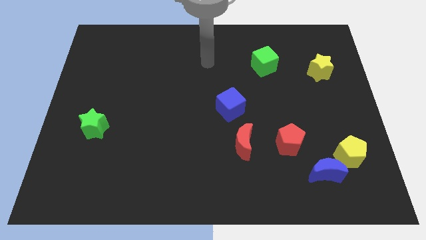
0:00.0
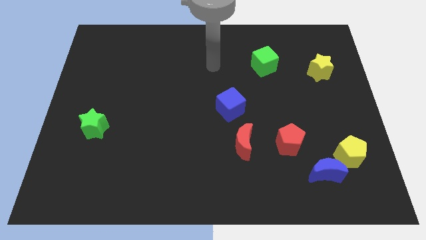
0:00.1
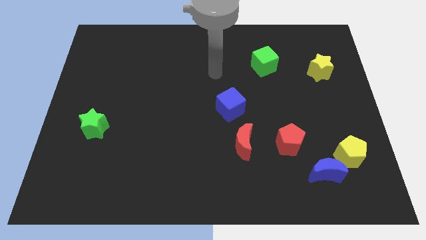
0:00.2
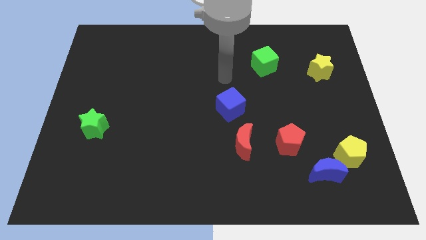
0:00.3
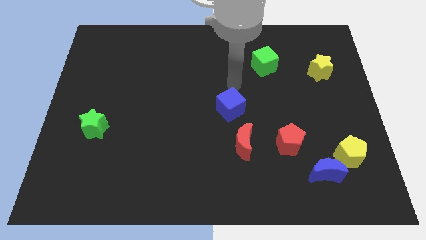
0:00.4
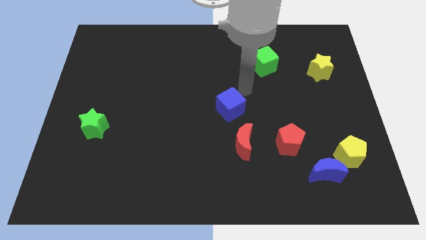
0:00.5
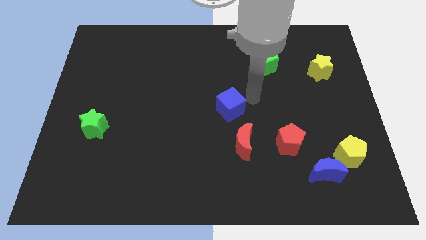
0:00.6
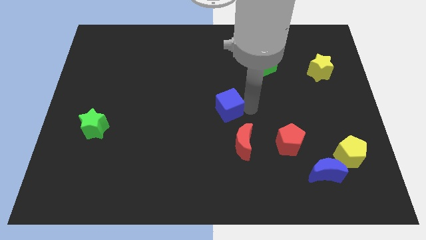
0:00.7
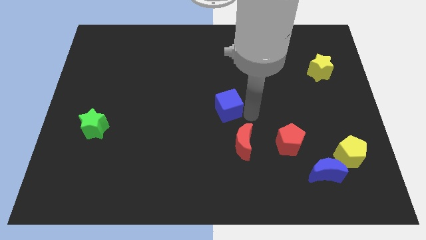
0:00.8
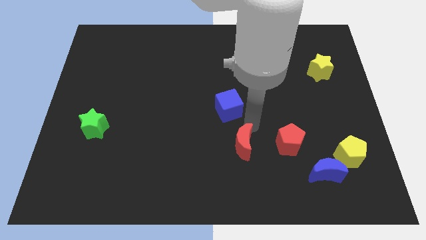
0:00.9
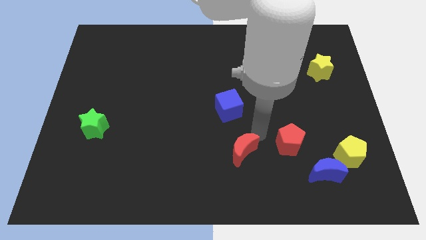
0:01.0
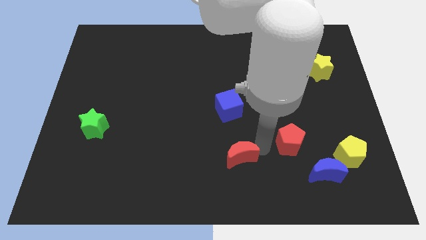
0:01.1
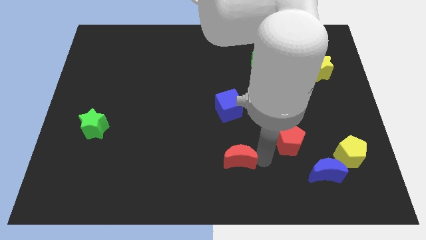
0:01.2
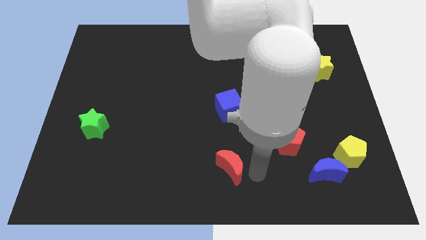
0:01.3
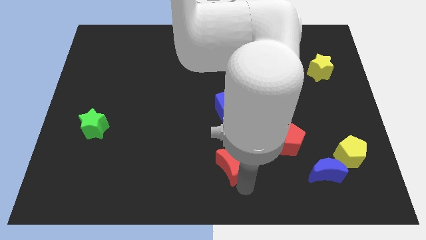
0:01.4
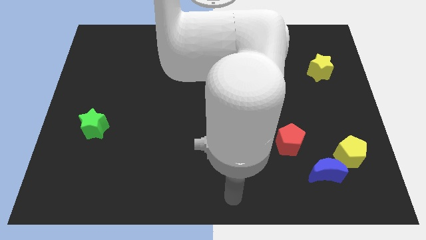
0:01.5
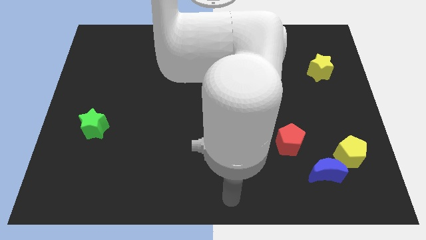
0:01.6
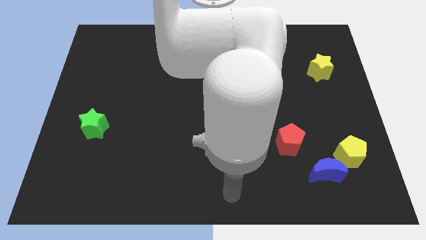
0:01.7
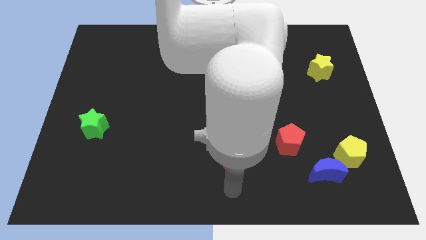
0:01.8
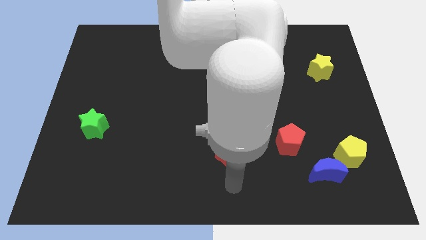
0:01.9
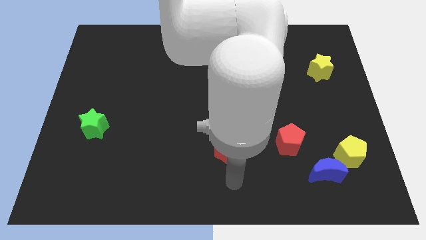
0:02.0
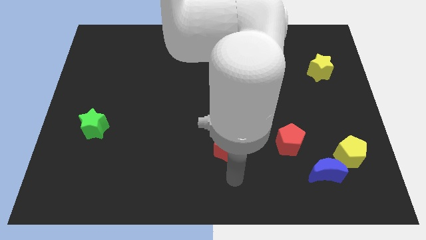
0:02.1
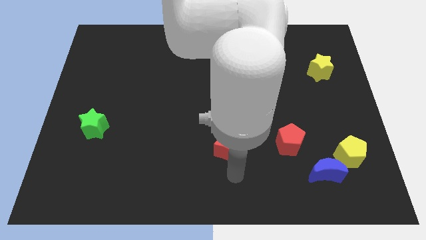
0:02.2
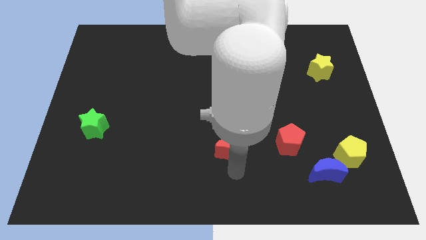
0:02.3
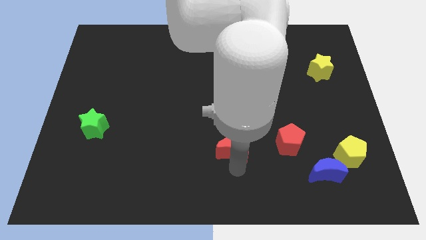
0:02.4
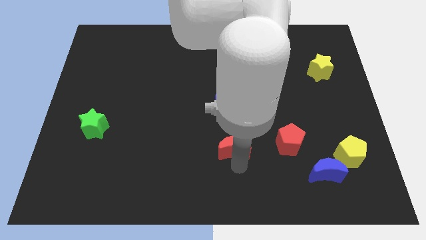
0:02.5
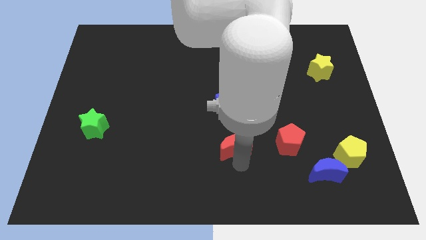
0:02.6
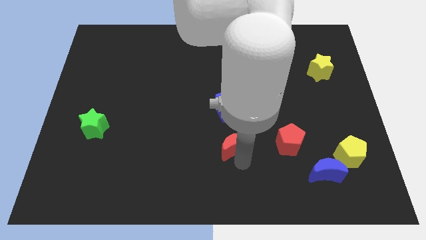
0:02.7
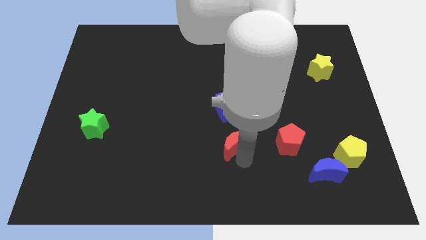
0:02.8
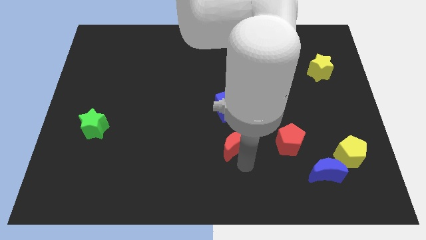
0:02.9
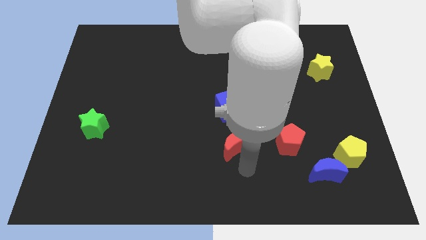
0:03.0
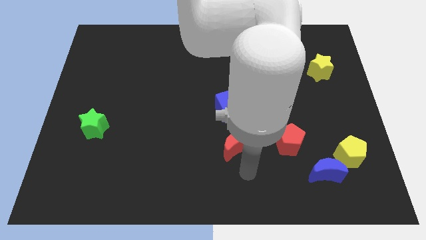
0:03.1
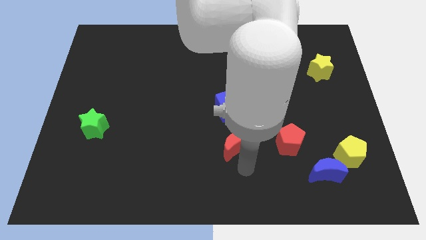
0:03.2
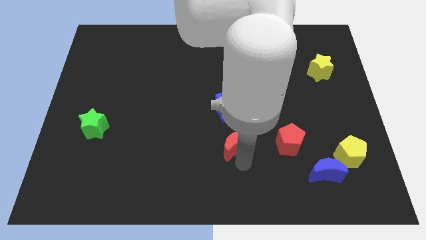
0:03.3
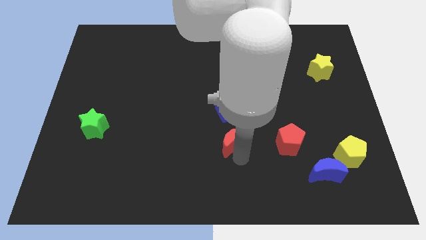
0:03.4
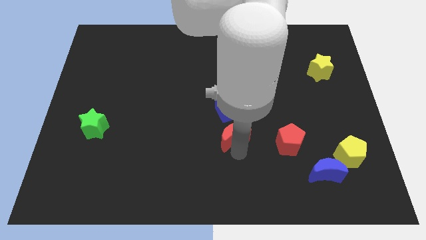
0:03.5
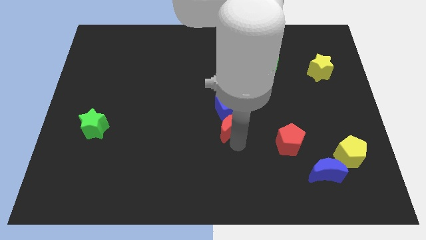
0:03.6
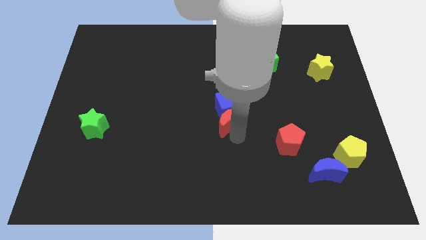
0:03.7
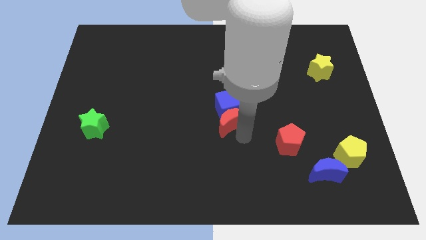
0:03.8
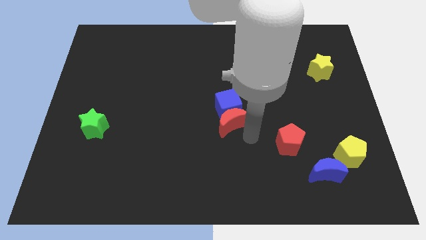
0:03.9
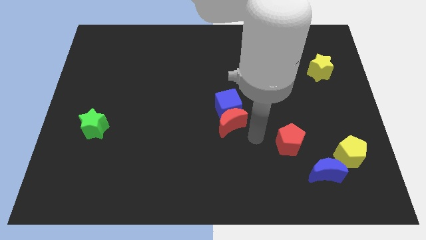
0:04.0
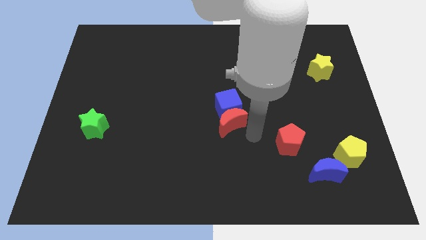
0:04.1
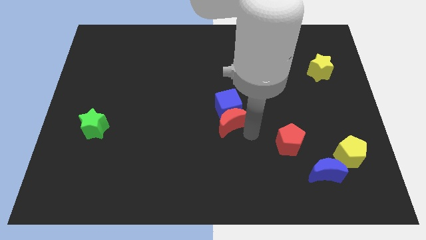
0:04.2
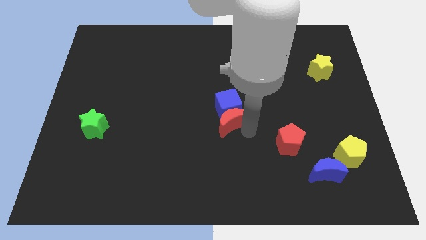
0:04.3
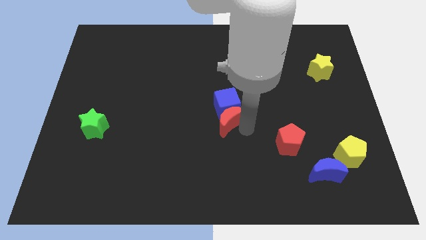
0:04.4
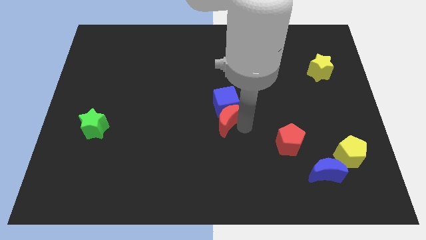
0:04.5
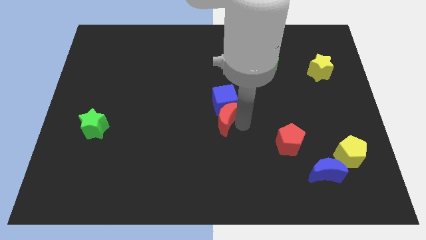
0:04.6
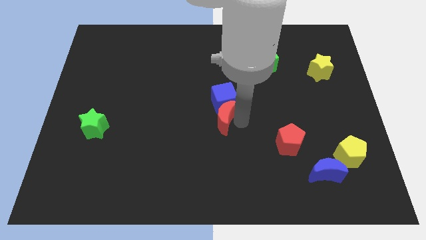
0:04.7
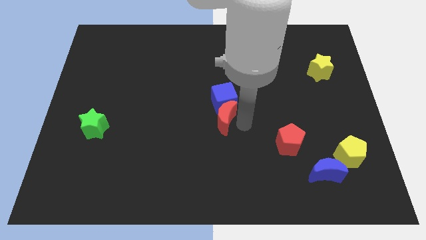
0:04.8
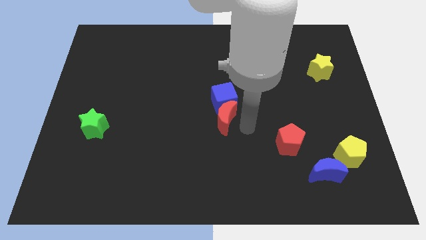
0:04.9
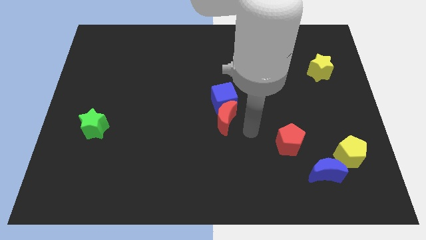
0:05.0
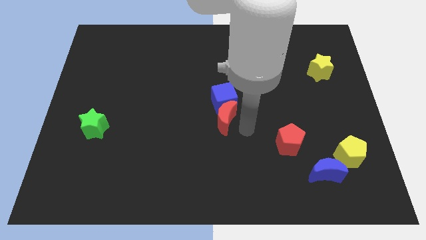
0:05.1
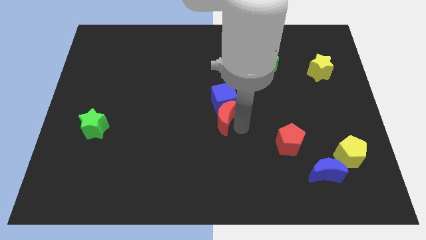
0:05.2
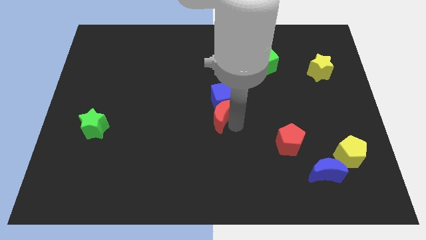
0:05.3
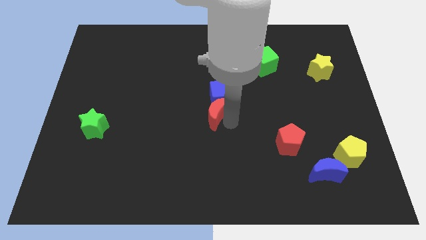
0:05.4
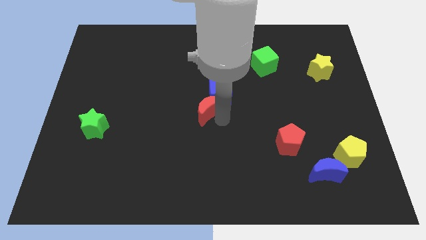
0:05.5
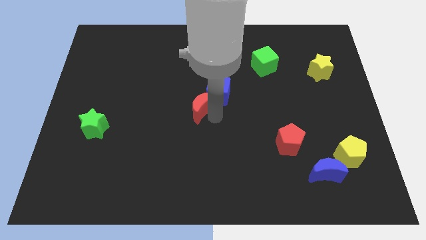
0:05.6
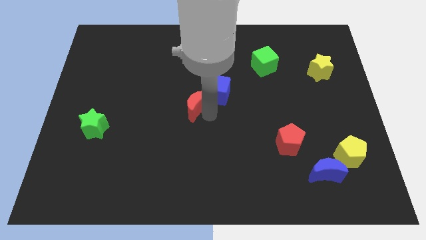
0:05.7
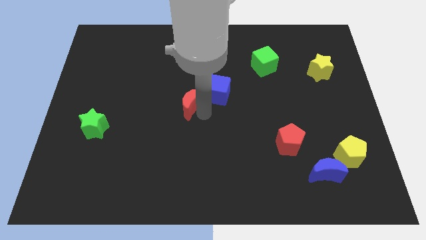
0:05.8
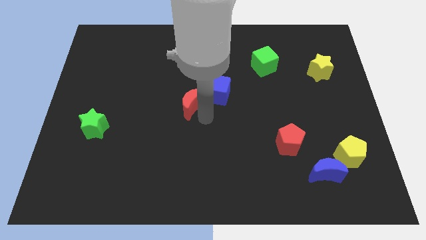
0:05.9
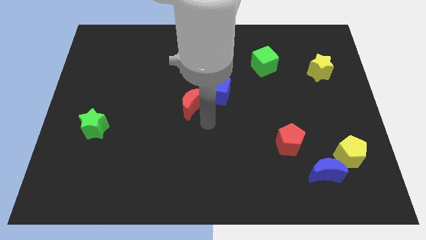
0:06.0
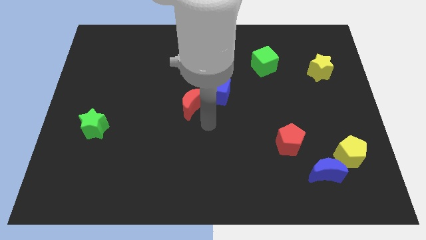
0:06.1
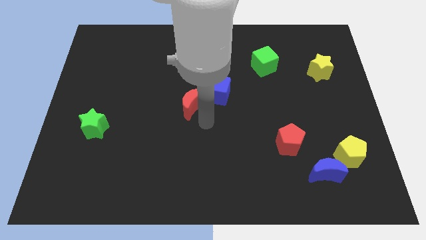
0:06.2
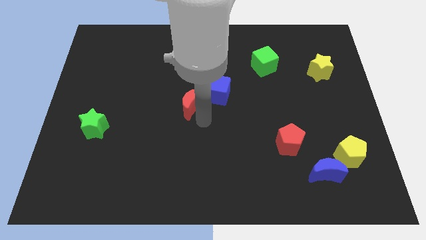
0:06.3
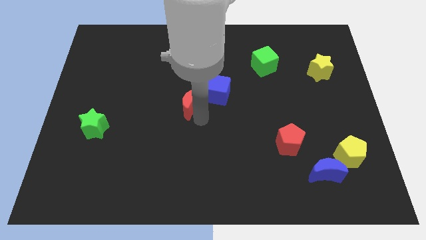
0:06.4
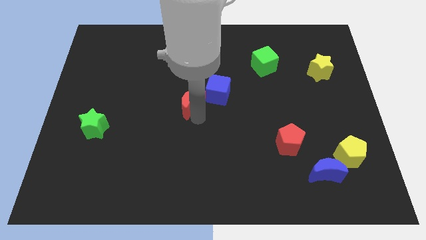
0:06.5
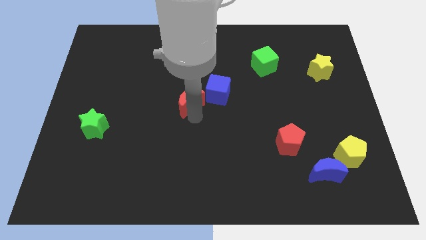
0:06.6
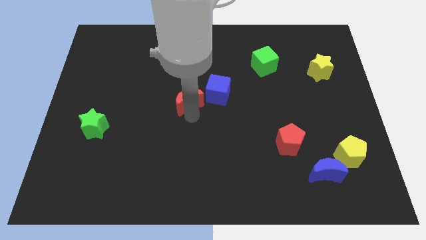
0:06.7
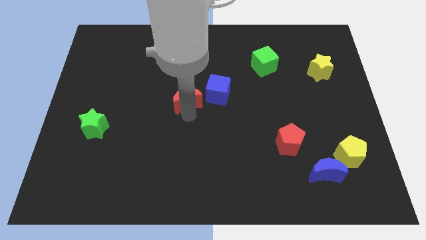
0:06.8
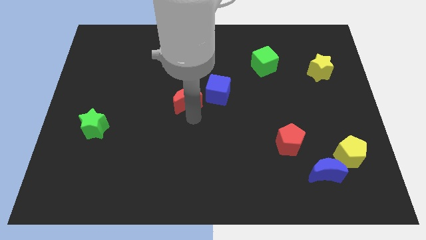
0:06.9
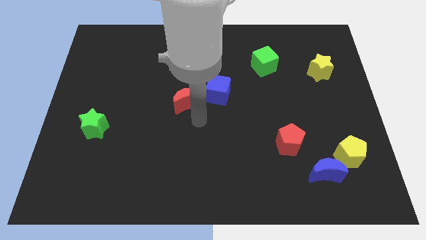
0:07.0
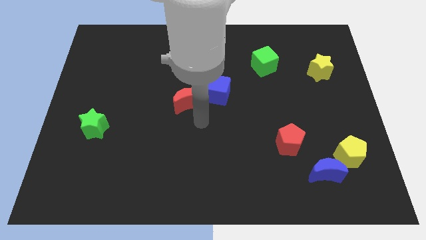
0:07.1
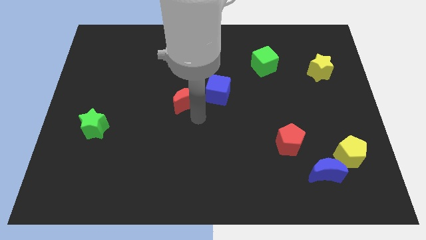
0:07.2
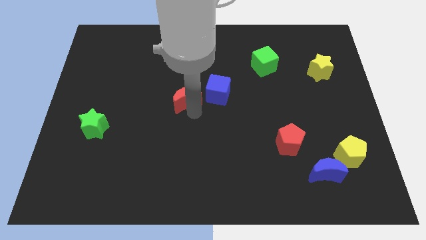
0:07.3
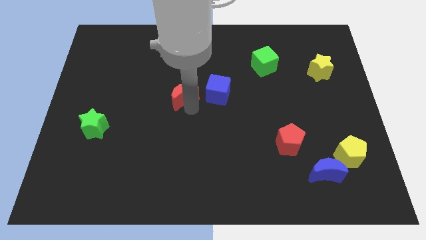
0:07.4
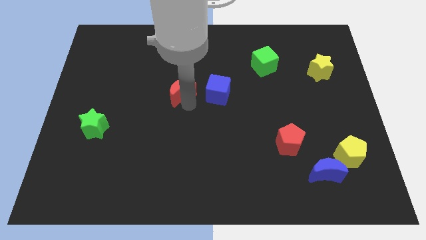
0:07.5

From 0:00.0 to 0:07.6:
push the red moon diagonally up and to the left

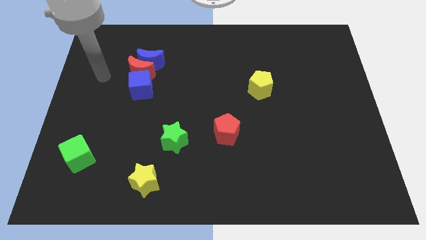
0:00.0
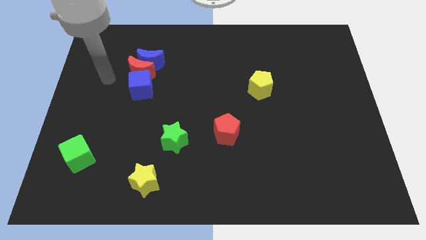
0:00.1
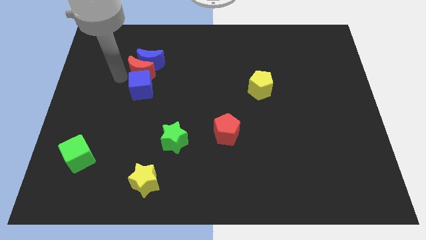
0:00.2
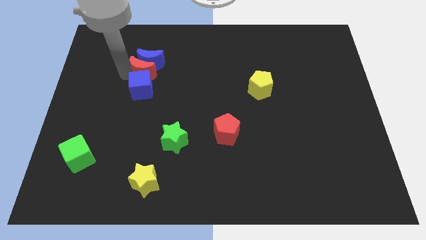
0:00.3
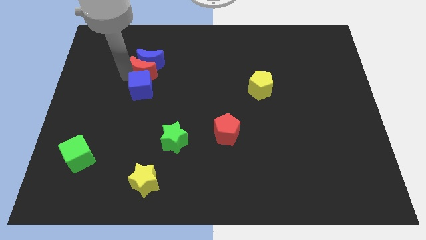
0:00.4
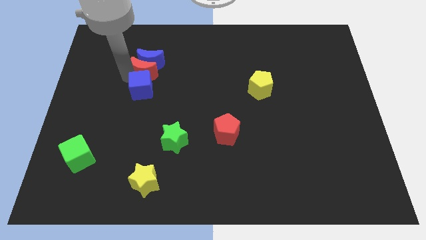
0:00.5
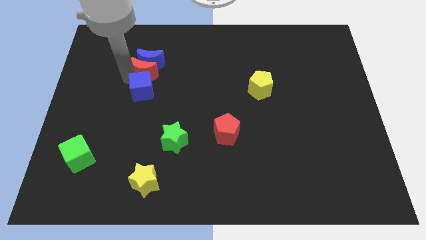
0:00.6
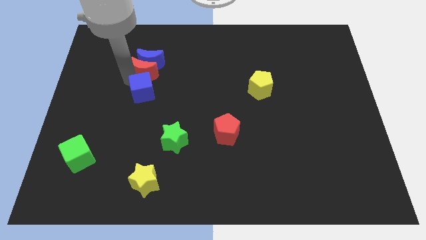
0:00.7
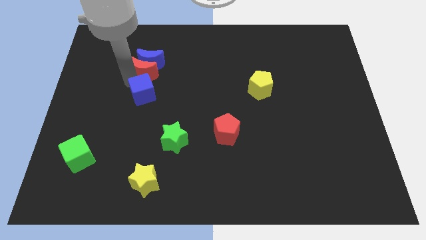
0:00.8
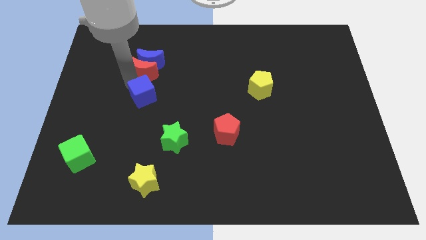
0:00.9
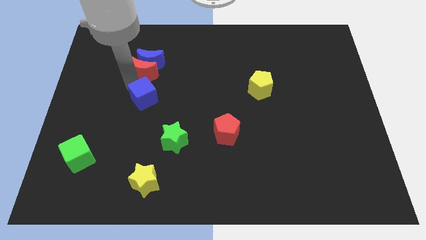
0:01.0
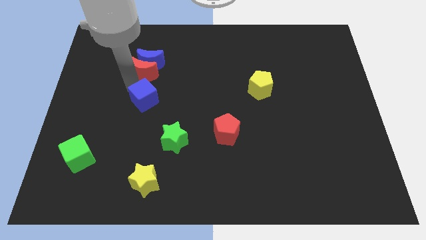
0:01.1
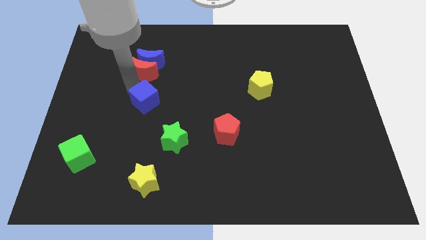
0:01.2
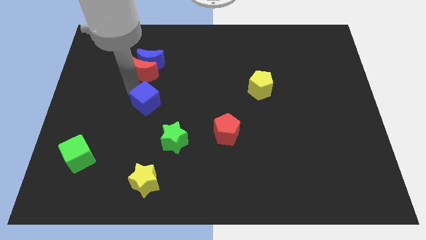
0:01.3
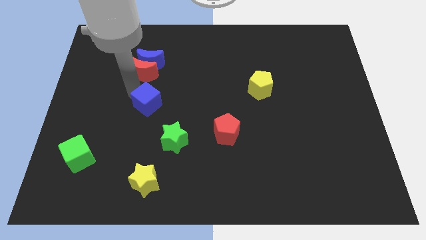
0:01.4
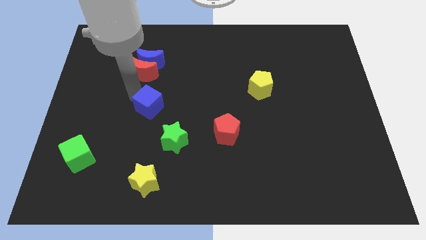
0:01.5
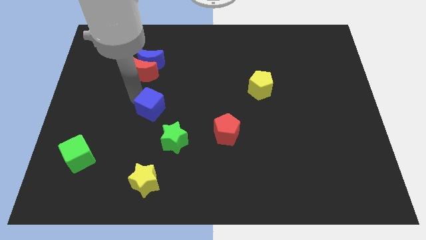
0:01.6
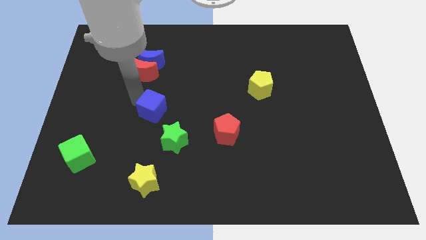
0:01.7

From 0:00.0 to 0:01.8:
slide the blue cube a little bit downwards and to the right diagonally
